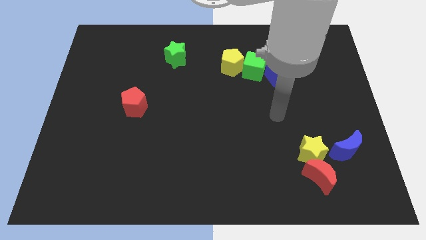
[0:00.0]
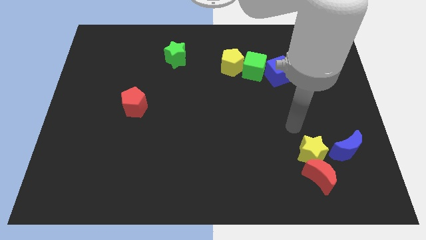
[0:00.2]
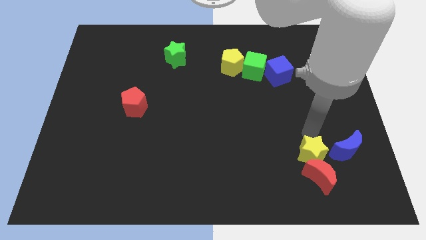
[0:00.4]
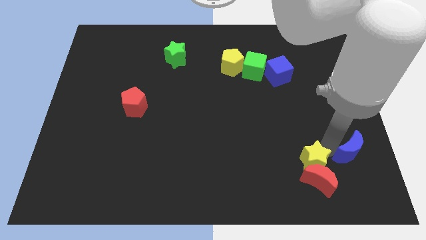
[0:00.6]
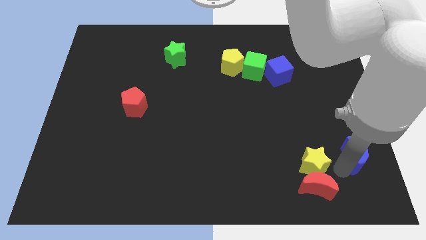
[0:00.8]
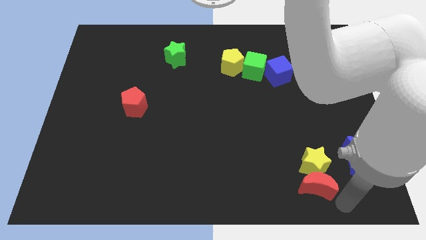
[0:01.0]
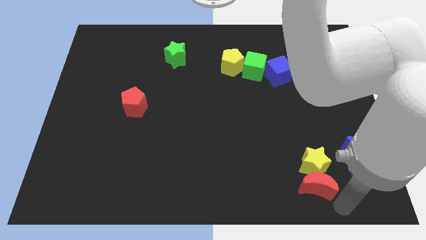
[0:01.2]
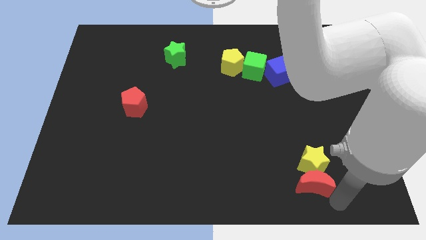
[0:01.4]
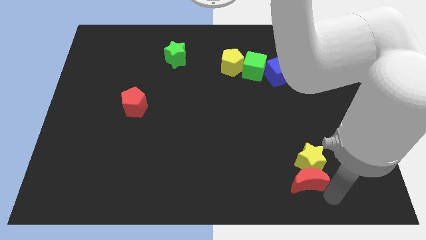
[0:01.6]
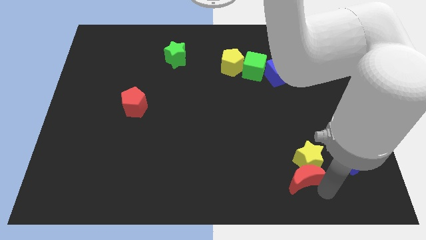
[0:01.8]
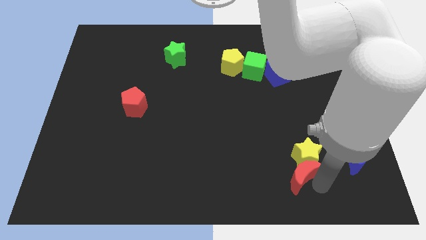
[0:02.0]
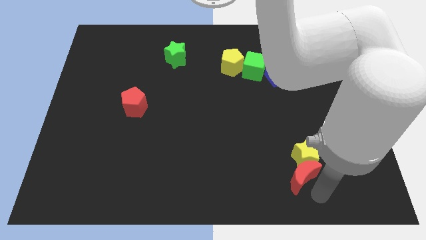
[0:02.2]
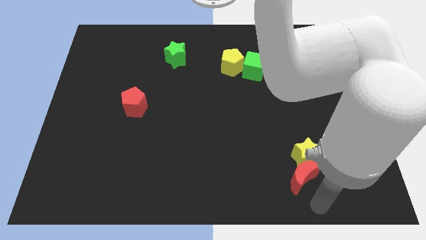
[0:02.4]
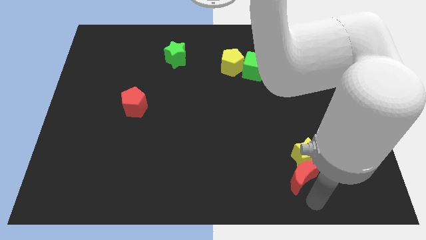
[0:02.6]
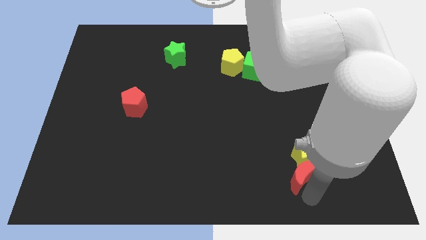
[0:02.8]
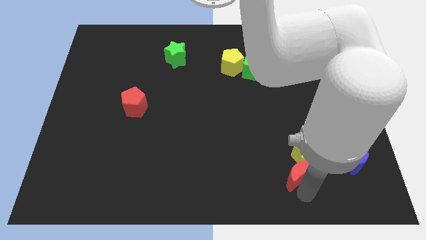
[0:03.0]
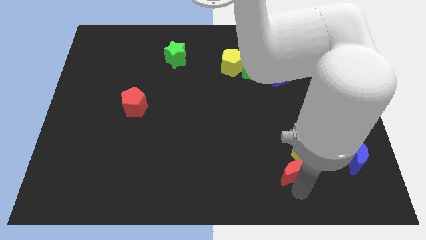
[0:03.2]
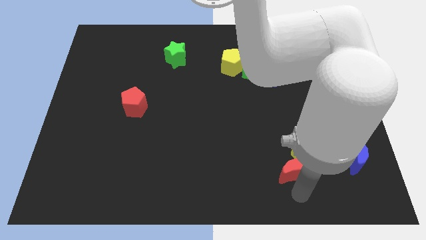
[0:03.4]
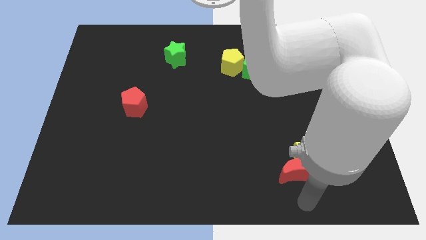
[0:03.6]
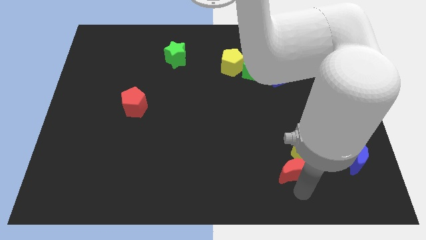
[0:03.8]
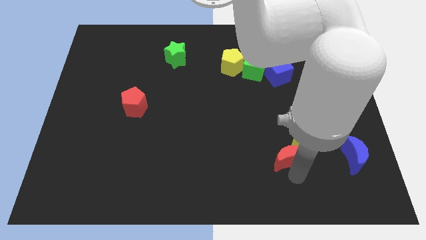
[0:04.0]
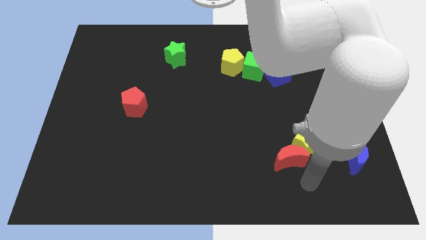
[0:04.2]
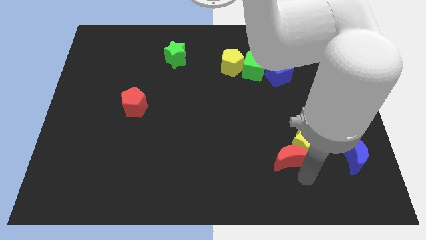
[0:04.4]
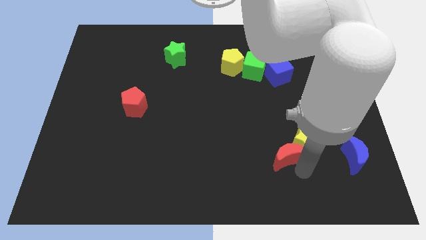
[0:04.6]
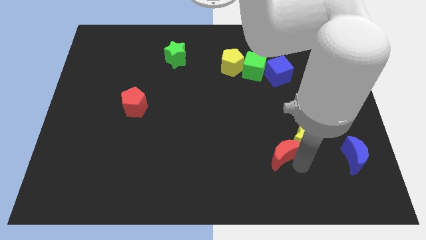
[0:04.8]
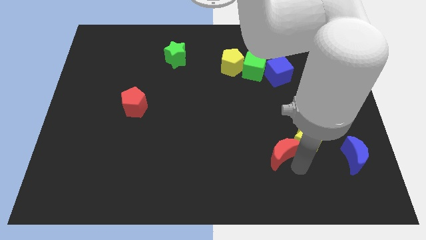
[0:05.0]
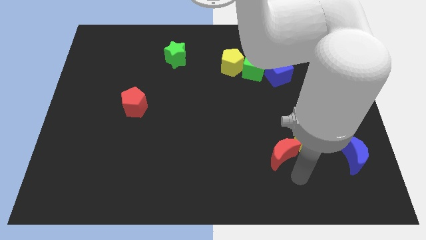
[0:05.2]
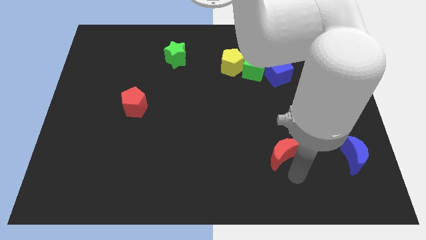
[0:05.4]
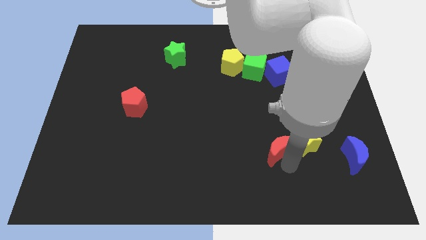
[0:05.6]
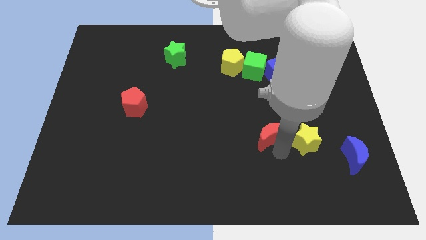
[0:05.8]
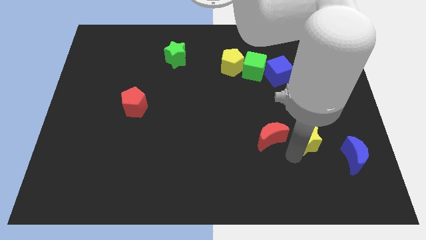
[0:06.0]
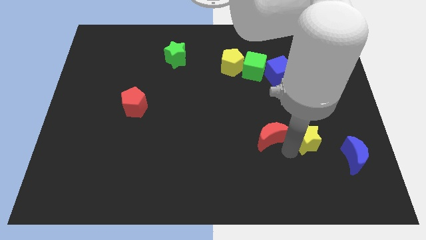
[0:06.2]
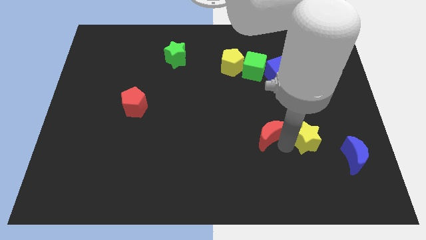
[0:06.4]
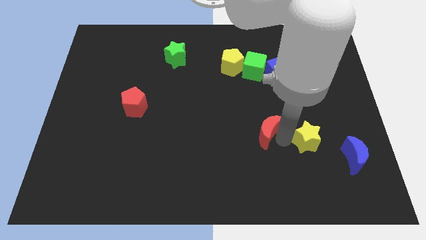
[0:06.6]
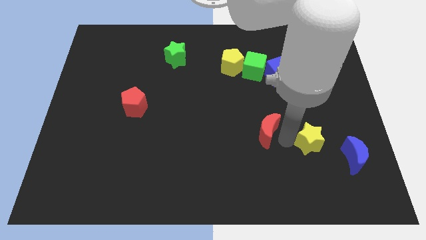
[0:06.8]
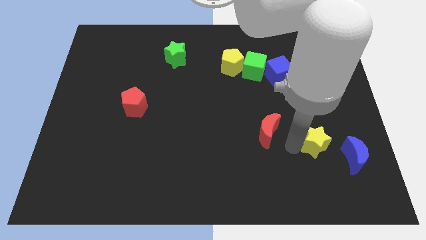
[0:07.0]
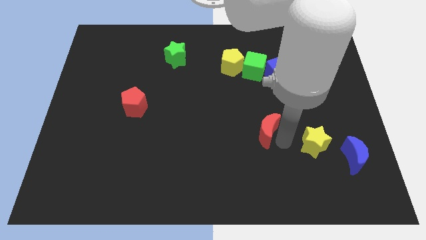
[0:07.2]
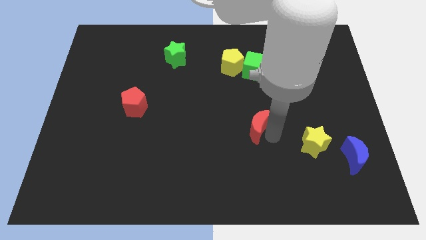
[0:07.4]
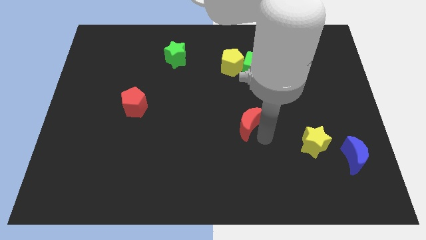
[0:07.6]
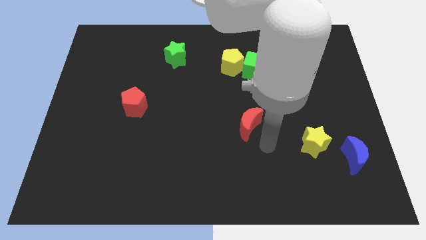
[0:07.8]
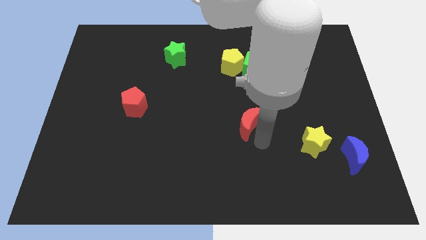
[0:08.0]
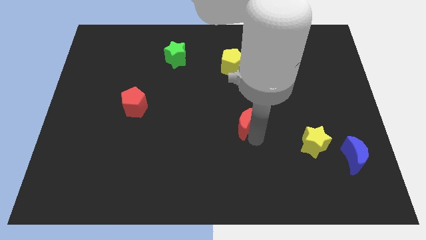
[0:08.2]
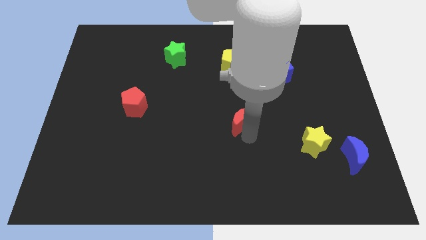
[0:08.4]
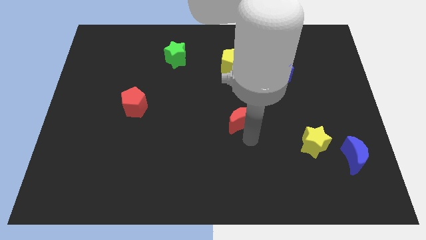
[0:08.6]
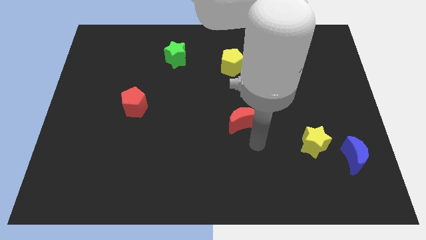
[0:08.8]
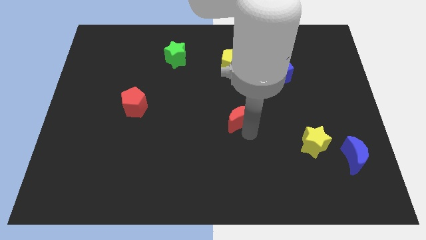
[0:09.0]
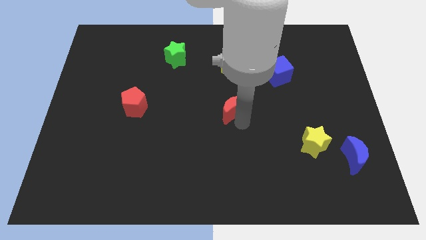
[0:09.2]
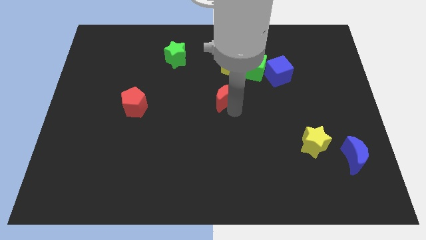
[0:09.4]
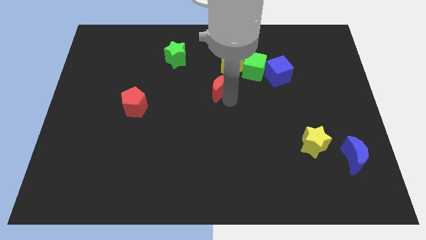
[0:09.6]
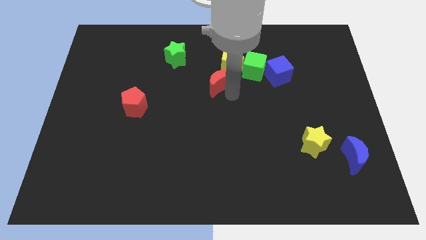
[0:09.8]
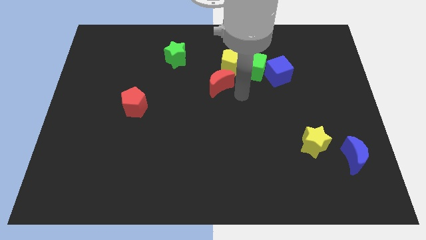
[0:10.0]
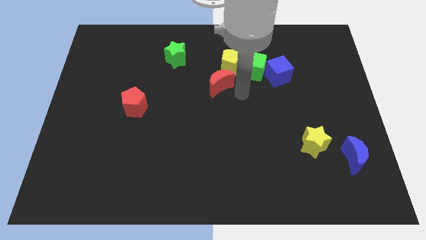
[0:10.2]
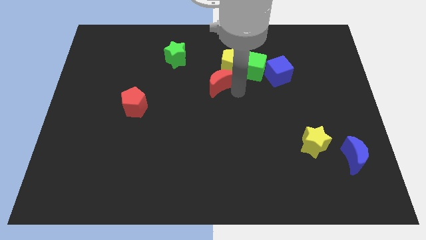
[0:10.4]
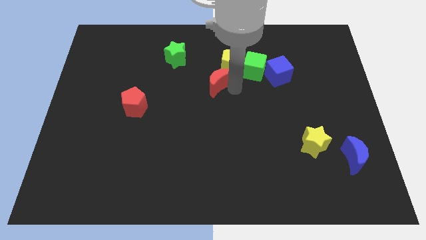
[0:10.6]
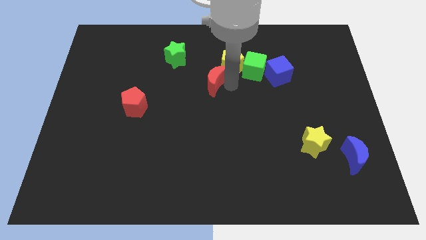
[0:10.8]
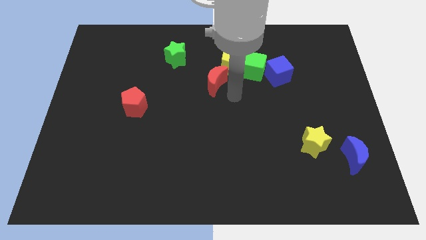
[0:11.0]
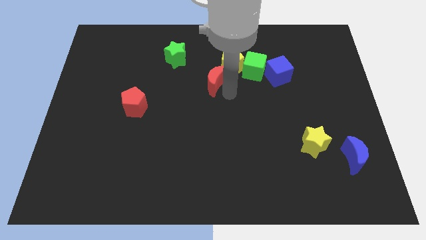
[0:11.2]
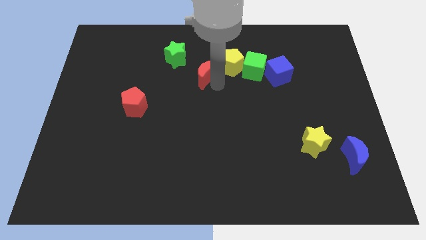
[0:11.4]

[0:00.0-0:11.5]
put the red moon just left of the yellow pentagon

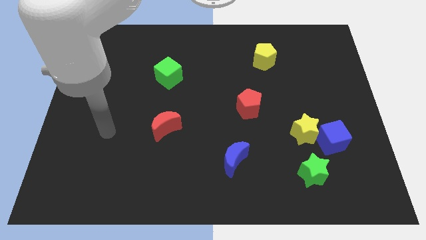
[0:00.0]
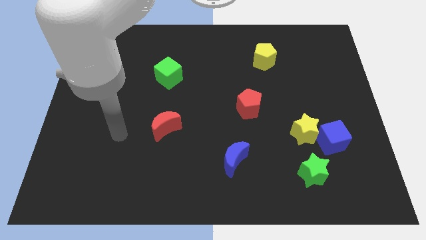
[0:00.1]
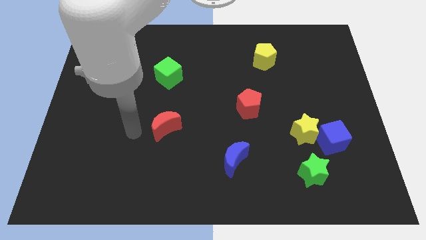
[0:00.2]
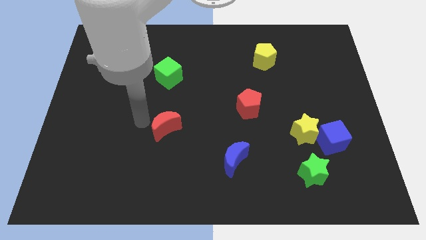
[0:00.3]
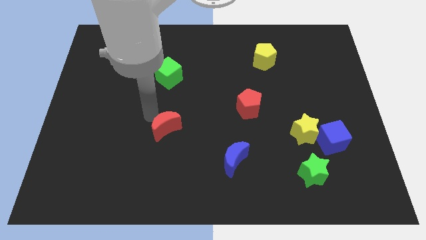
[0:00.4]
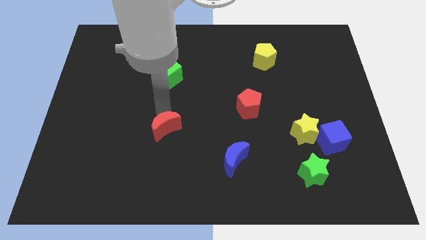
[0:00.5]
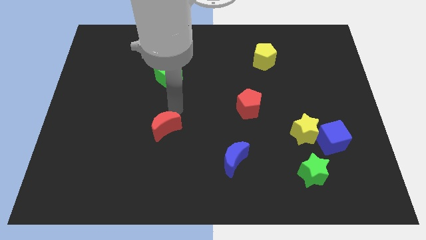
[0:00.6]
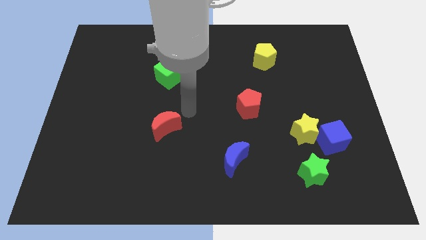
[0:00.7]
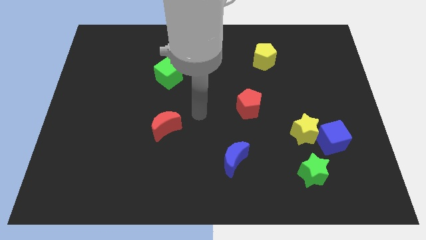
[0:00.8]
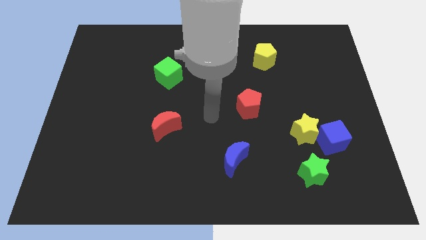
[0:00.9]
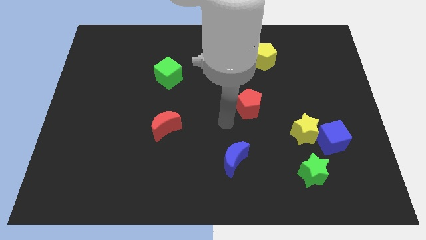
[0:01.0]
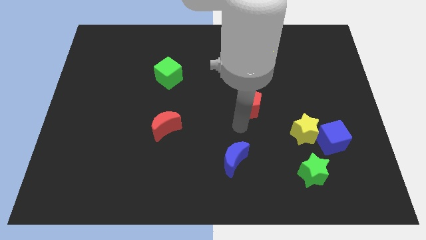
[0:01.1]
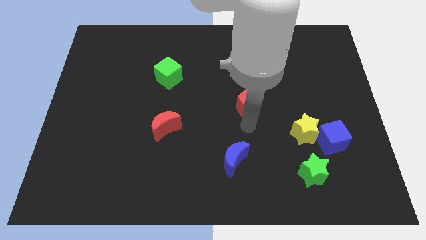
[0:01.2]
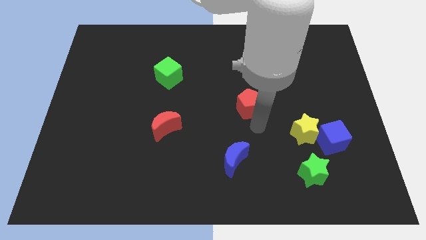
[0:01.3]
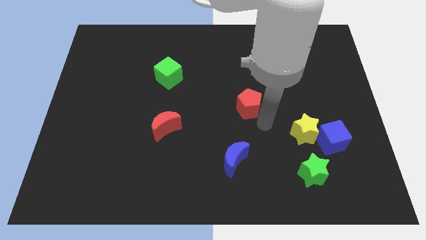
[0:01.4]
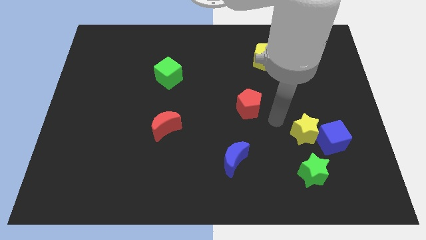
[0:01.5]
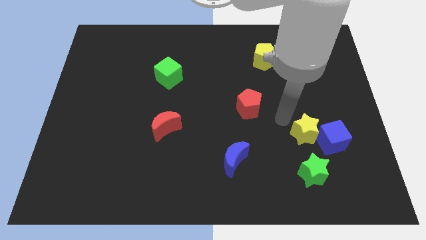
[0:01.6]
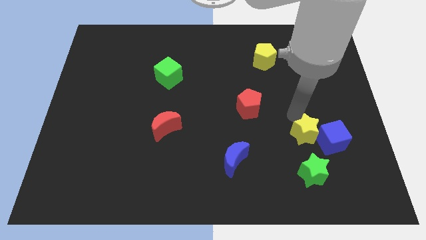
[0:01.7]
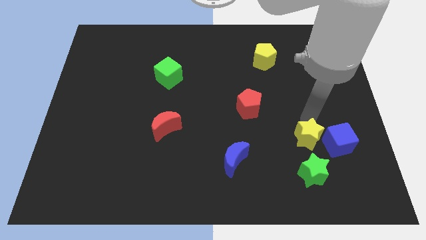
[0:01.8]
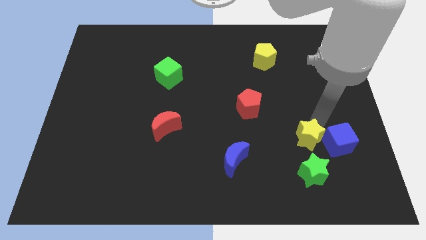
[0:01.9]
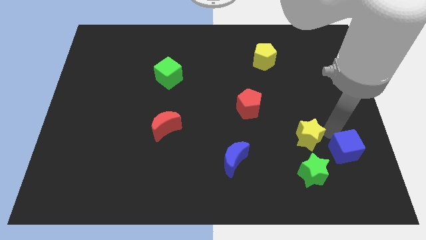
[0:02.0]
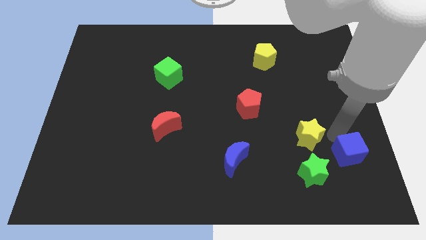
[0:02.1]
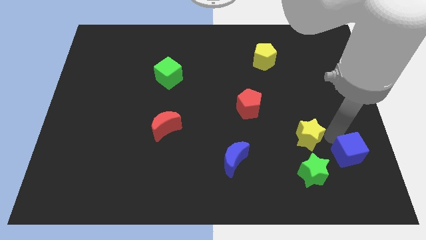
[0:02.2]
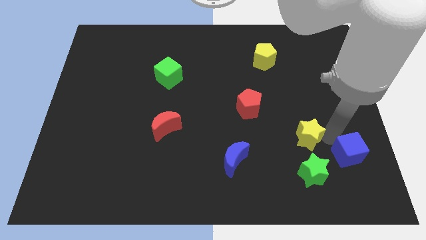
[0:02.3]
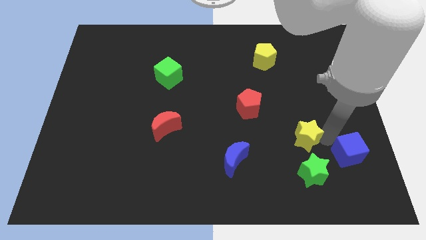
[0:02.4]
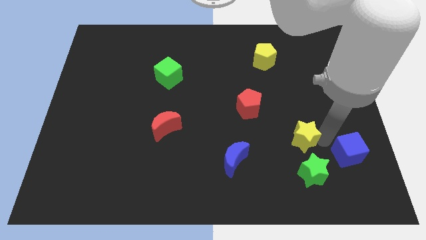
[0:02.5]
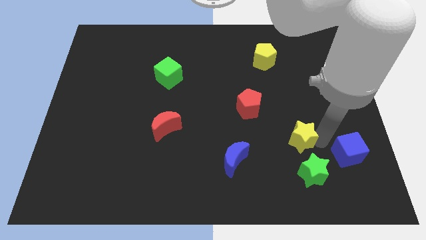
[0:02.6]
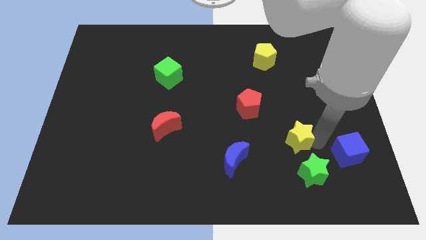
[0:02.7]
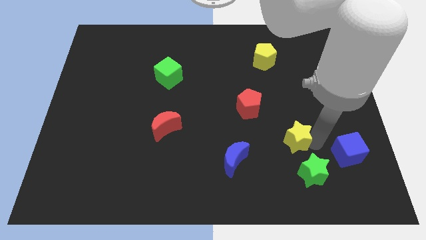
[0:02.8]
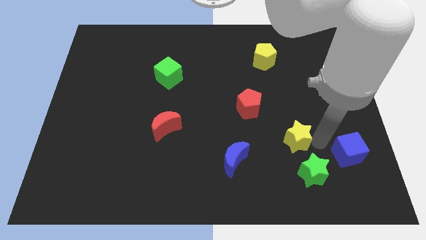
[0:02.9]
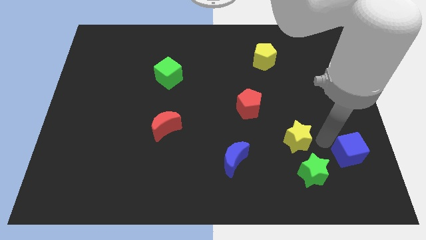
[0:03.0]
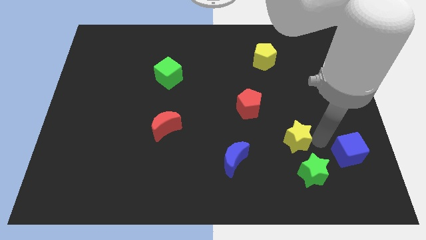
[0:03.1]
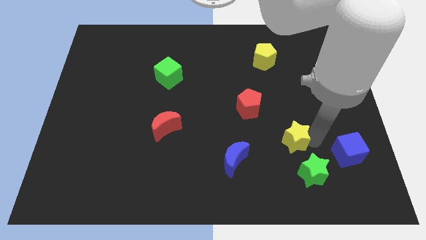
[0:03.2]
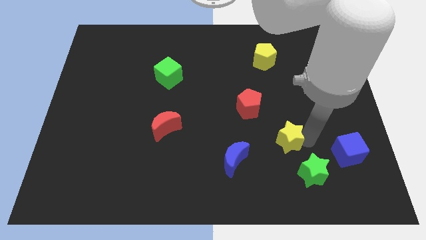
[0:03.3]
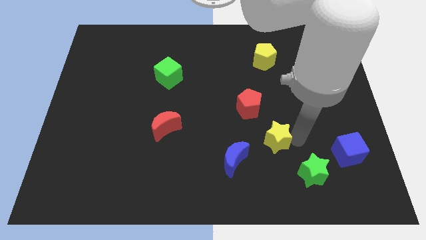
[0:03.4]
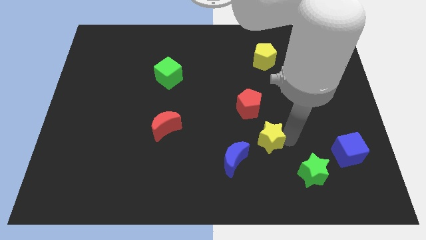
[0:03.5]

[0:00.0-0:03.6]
slide the yellow star to the bottom of the red pentagon
